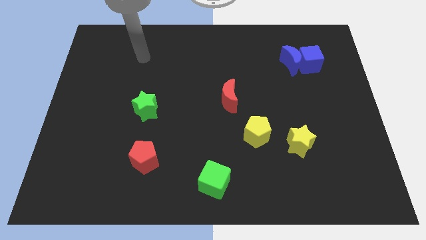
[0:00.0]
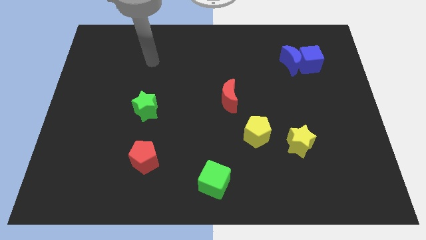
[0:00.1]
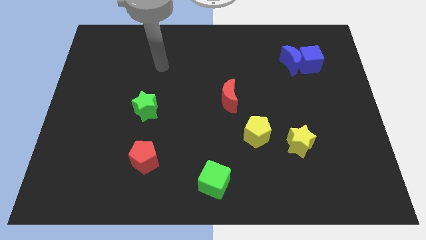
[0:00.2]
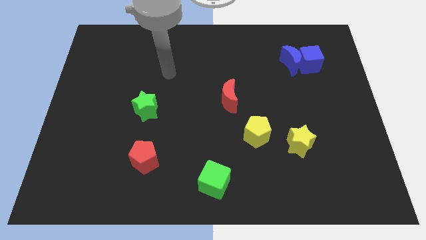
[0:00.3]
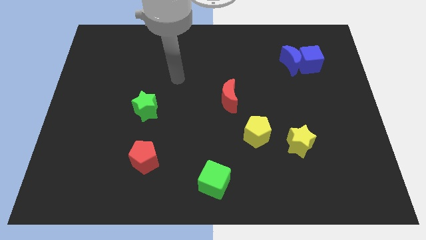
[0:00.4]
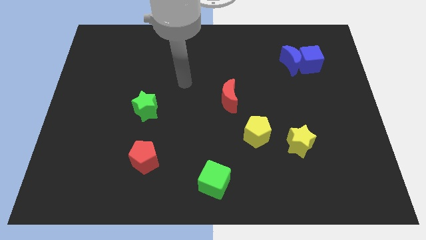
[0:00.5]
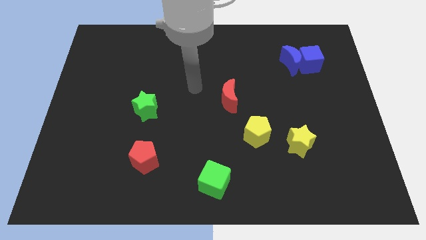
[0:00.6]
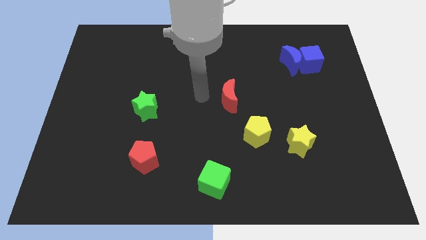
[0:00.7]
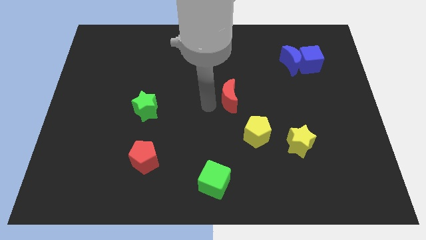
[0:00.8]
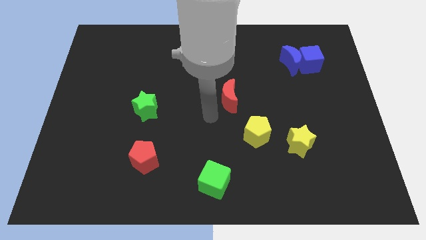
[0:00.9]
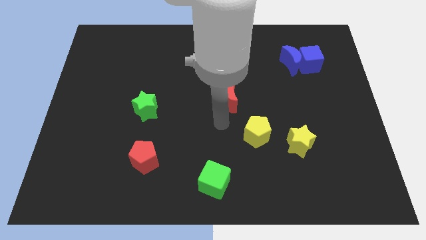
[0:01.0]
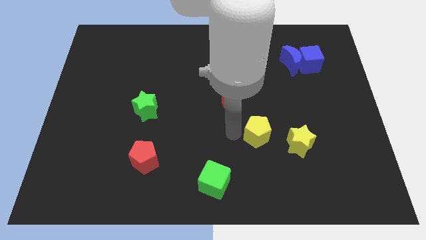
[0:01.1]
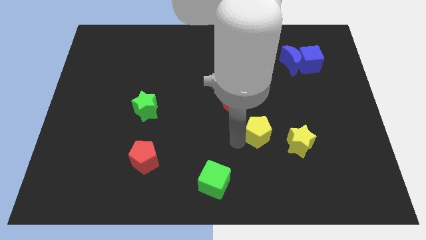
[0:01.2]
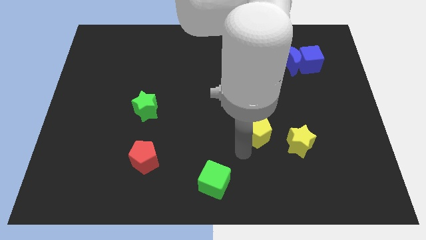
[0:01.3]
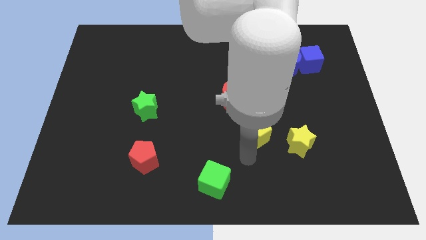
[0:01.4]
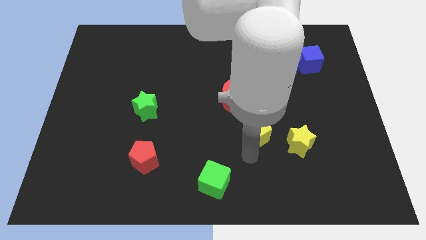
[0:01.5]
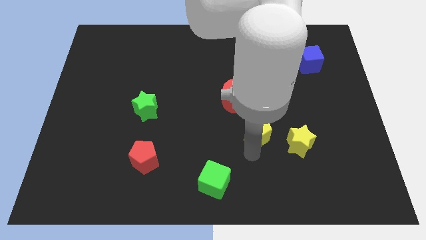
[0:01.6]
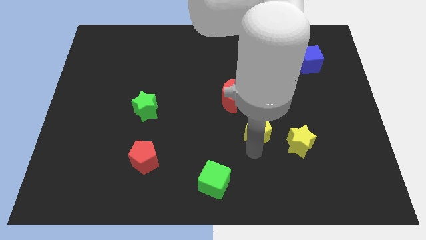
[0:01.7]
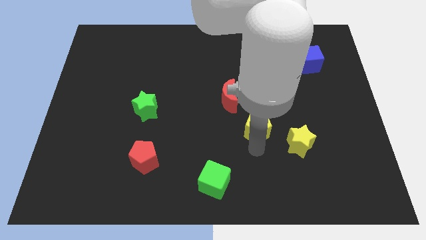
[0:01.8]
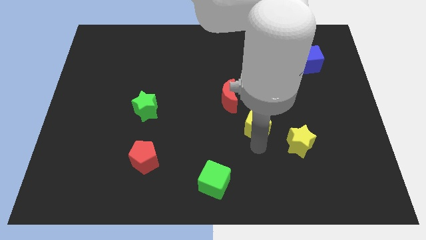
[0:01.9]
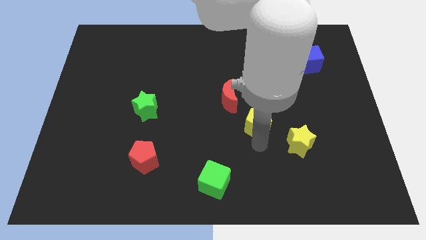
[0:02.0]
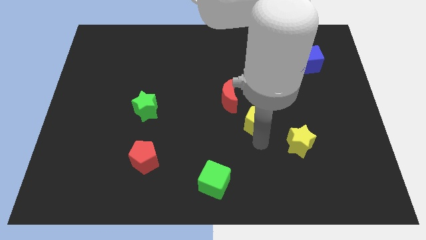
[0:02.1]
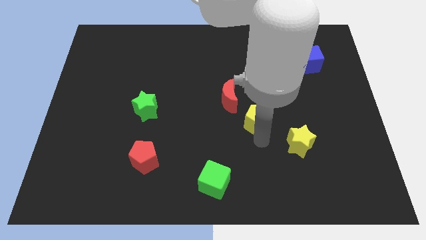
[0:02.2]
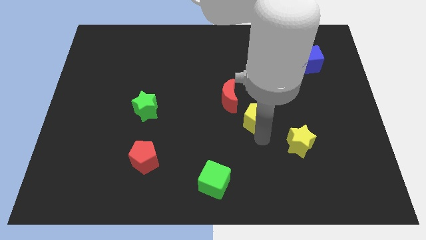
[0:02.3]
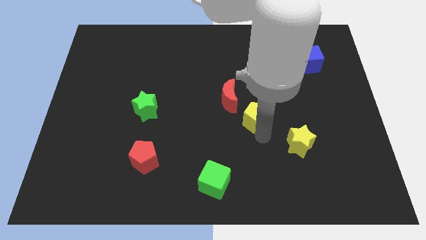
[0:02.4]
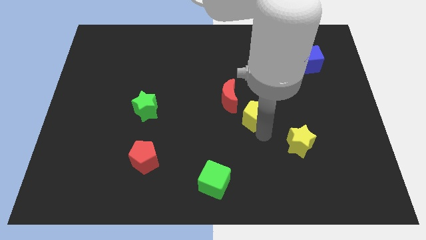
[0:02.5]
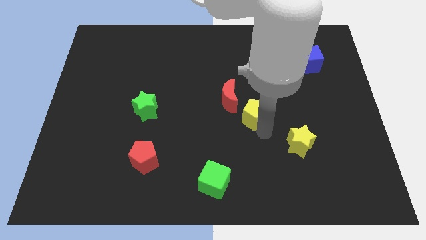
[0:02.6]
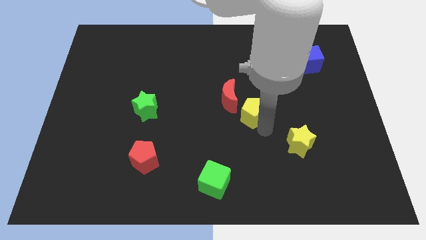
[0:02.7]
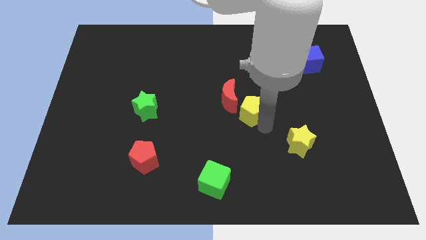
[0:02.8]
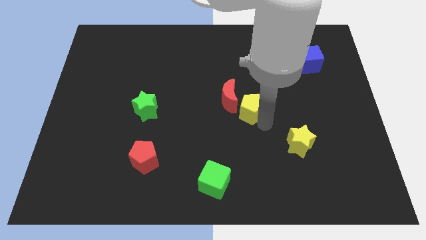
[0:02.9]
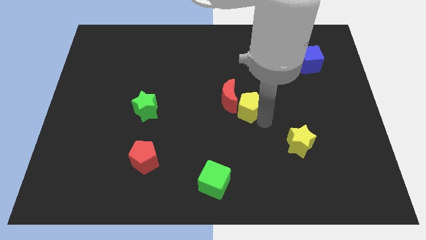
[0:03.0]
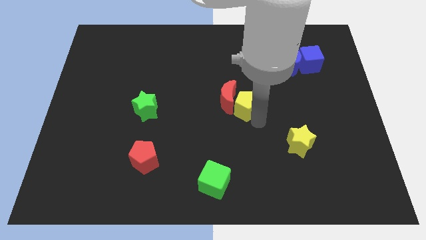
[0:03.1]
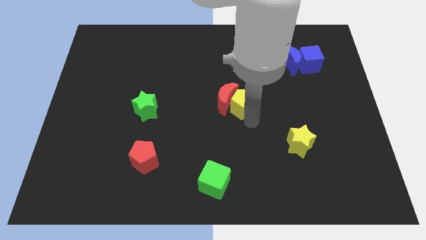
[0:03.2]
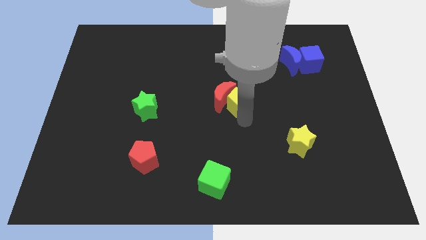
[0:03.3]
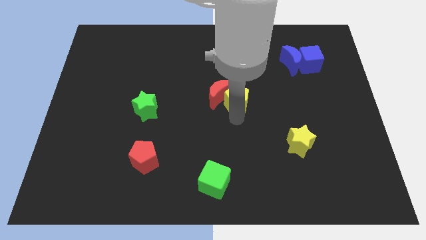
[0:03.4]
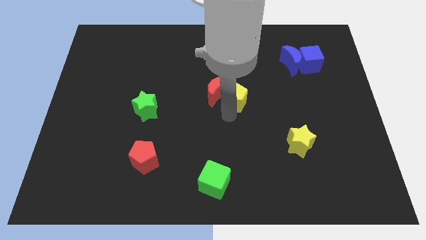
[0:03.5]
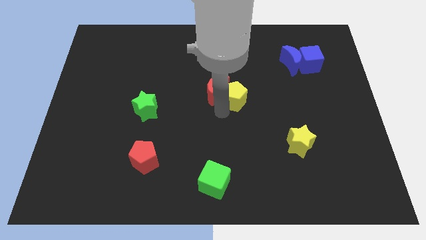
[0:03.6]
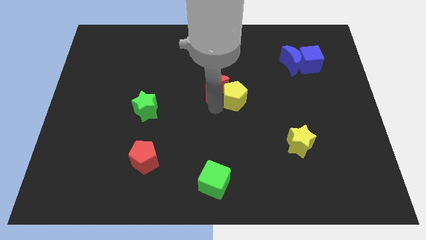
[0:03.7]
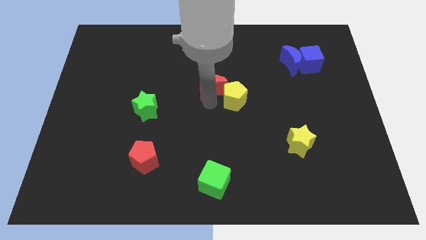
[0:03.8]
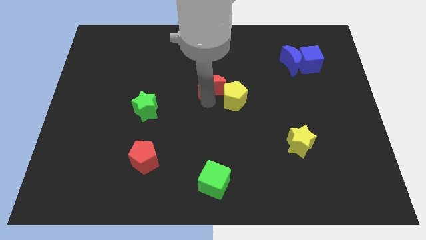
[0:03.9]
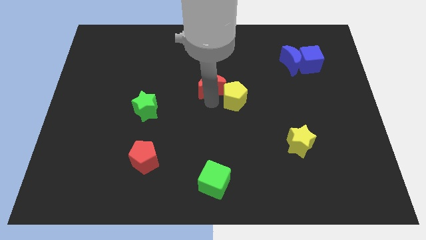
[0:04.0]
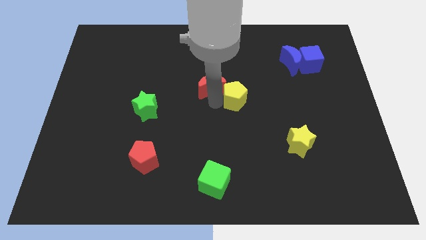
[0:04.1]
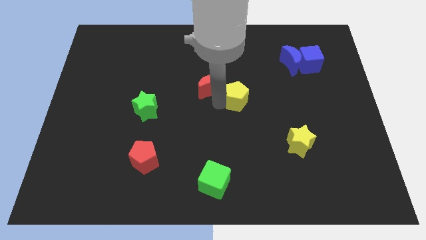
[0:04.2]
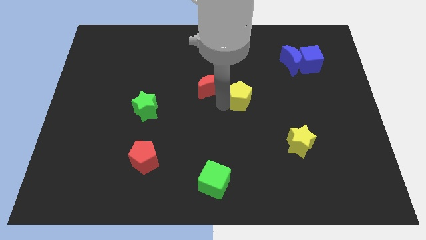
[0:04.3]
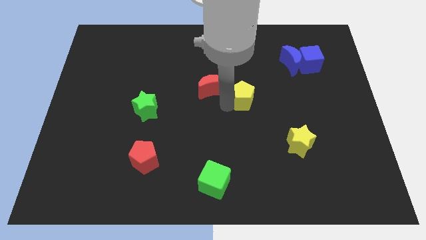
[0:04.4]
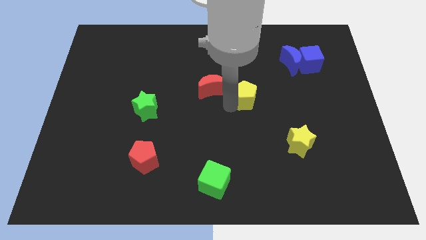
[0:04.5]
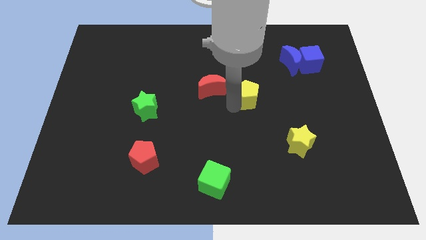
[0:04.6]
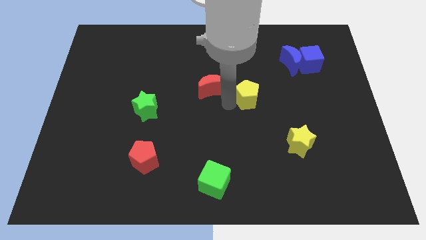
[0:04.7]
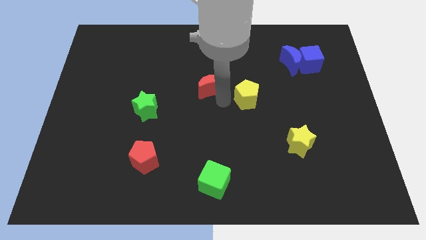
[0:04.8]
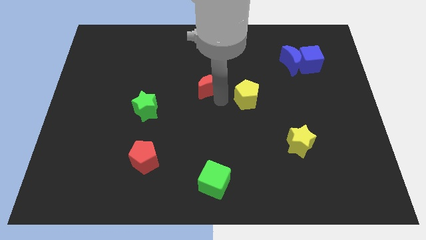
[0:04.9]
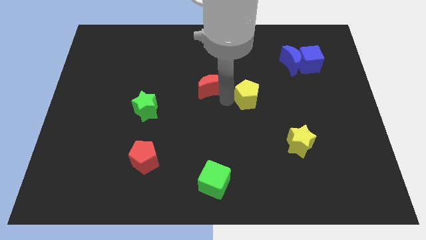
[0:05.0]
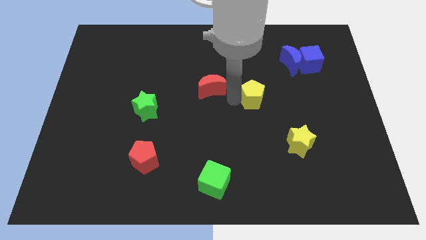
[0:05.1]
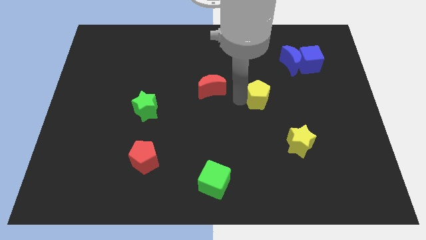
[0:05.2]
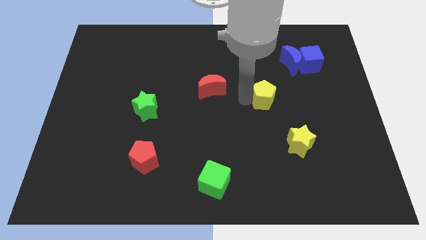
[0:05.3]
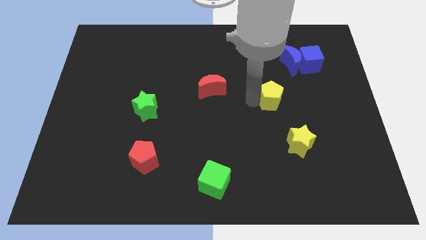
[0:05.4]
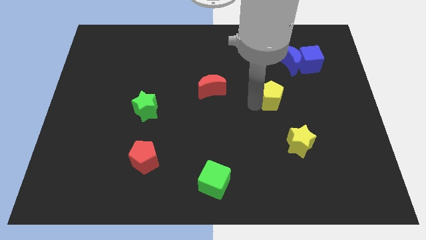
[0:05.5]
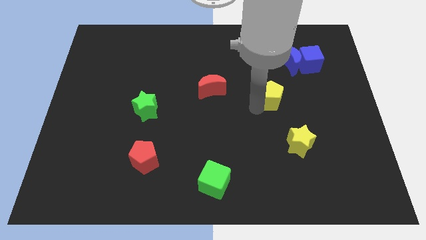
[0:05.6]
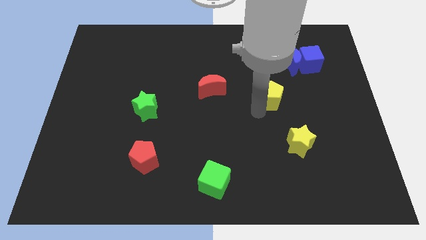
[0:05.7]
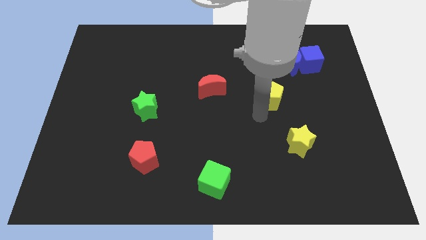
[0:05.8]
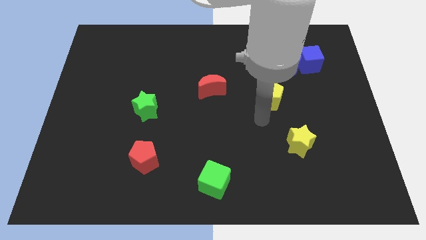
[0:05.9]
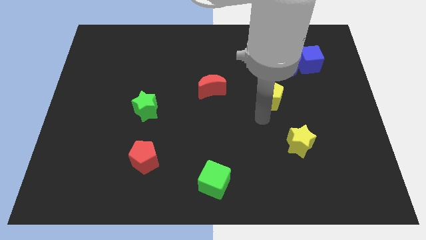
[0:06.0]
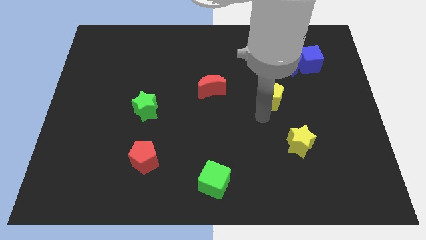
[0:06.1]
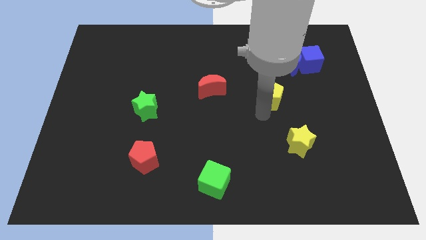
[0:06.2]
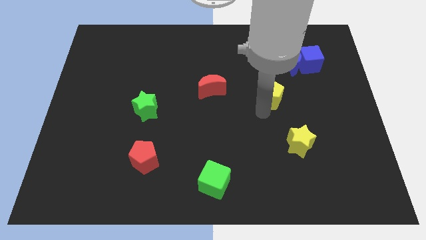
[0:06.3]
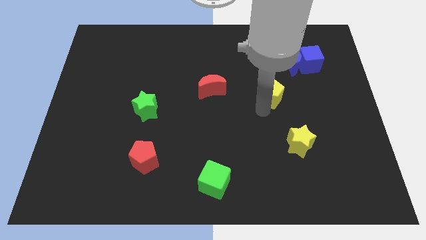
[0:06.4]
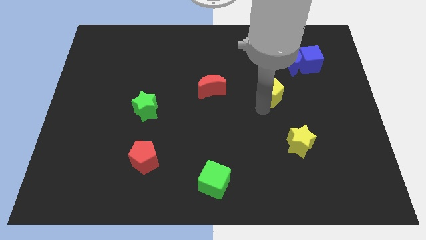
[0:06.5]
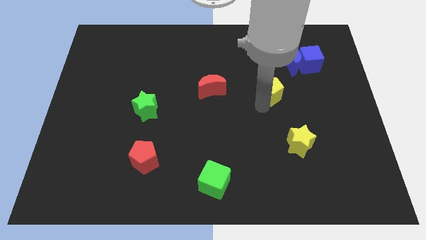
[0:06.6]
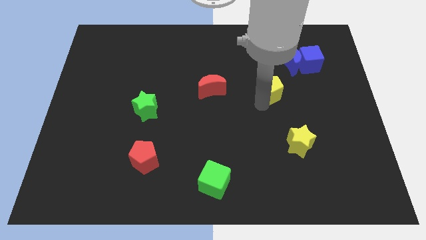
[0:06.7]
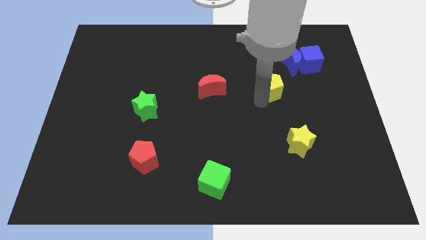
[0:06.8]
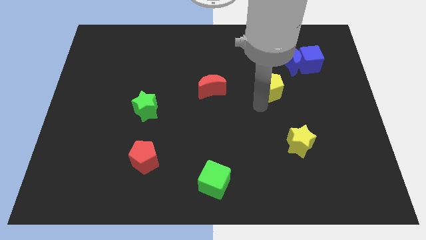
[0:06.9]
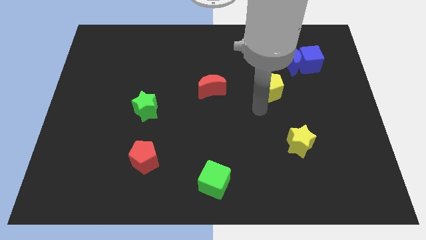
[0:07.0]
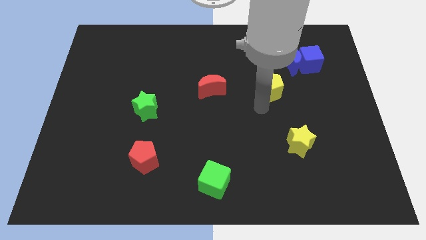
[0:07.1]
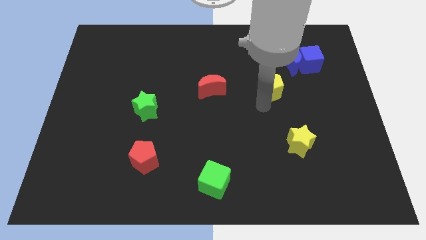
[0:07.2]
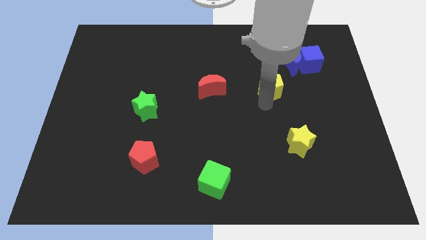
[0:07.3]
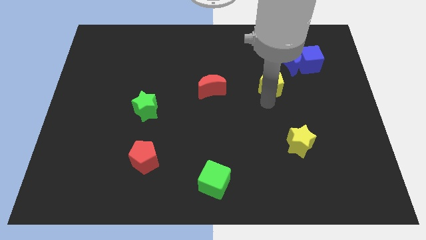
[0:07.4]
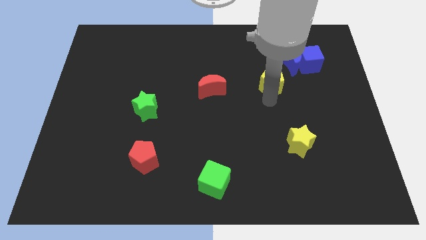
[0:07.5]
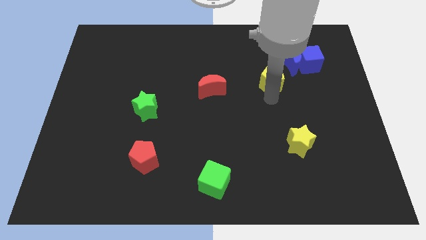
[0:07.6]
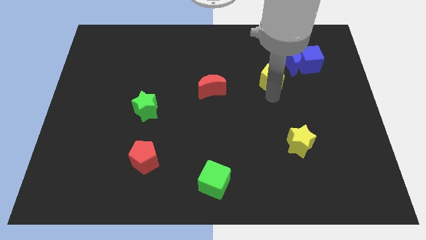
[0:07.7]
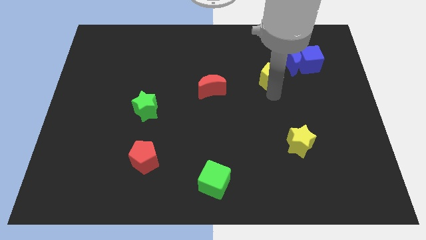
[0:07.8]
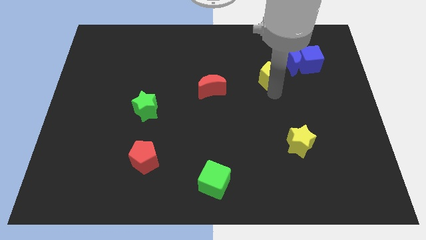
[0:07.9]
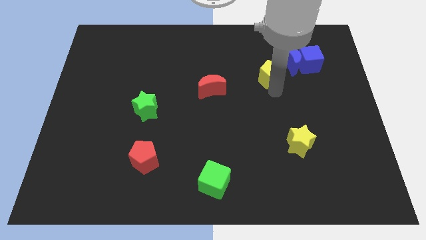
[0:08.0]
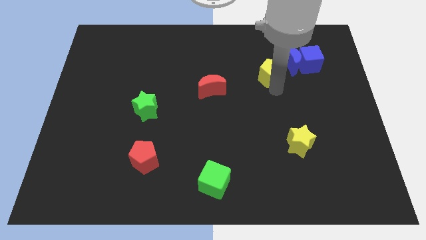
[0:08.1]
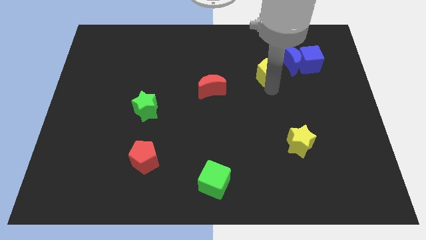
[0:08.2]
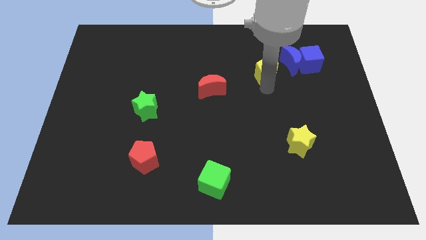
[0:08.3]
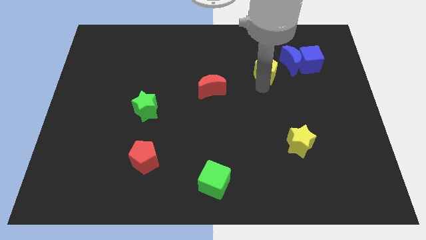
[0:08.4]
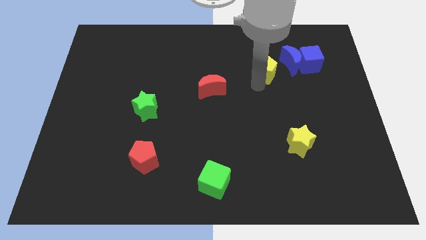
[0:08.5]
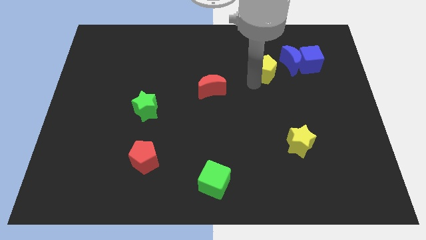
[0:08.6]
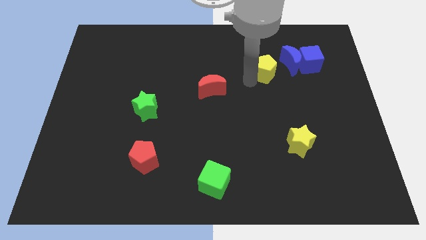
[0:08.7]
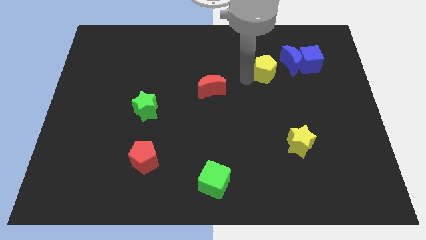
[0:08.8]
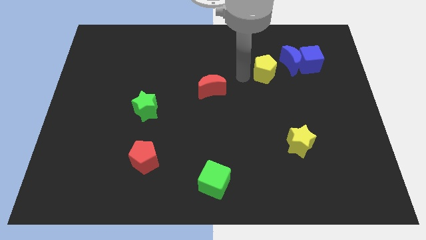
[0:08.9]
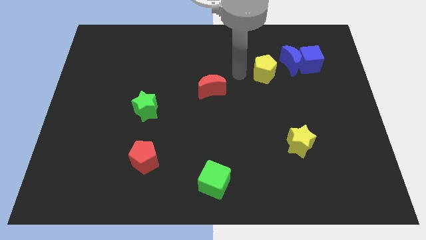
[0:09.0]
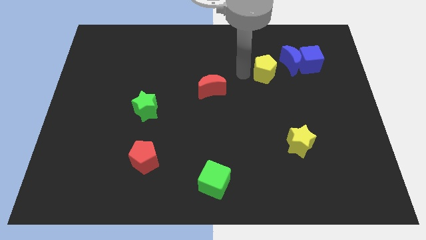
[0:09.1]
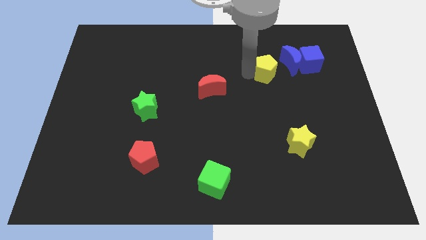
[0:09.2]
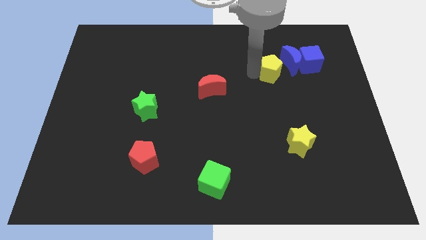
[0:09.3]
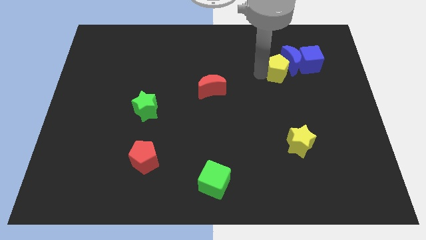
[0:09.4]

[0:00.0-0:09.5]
move the yellow pentagon towards the blue moon
